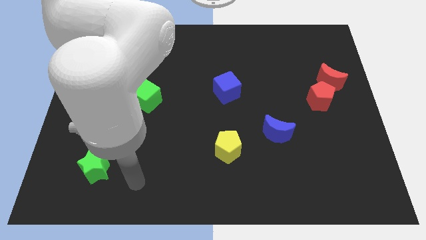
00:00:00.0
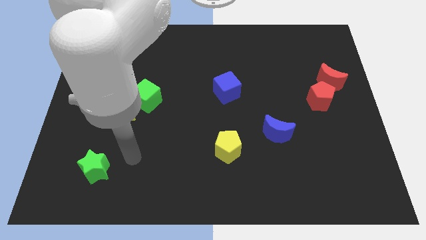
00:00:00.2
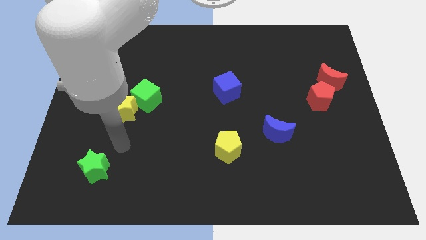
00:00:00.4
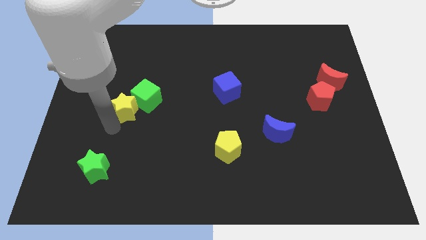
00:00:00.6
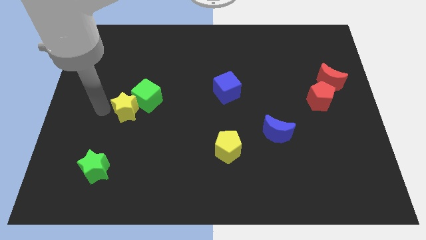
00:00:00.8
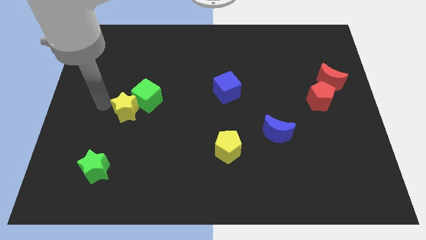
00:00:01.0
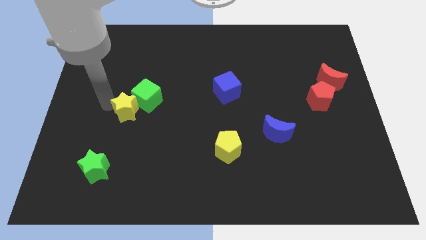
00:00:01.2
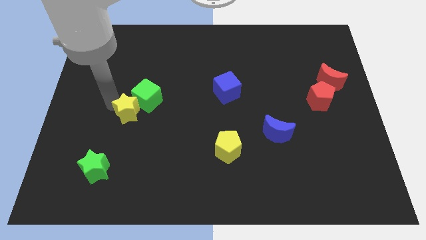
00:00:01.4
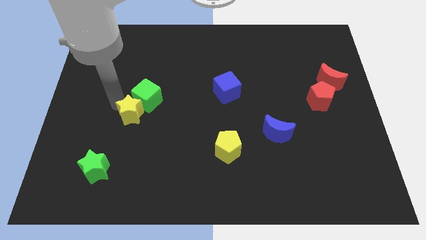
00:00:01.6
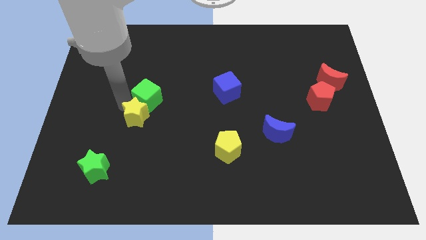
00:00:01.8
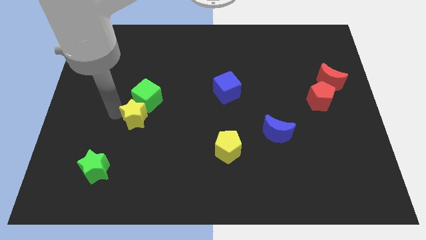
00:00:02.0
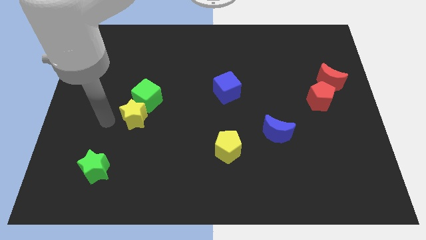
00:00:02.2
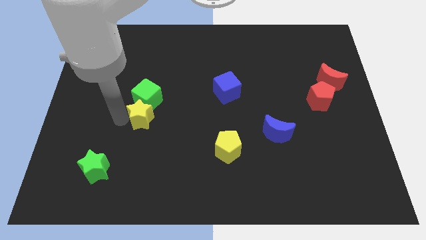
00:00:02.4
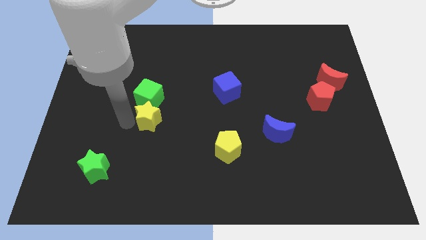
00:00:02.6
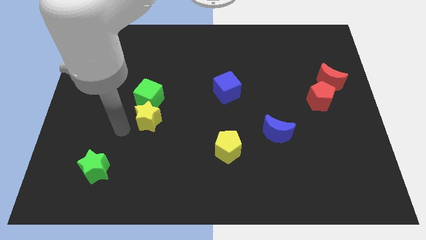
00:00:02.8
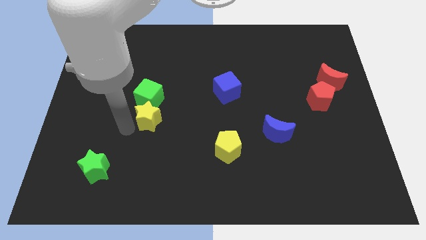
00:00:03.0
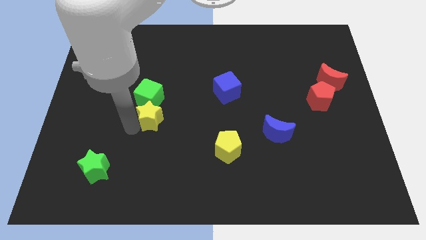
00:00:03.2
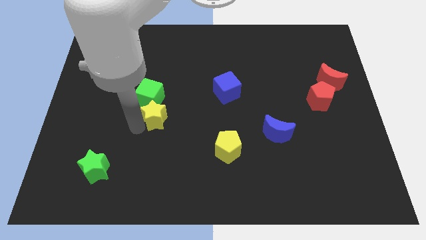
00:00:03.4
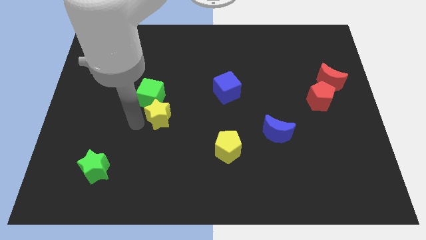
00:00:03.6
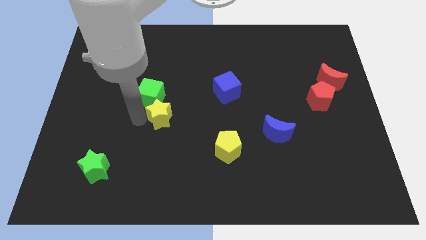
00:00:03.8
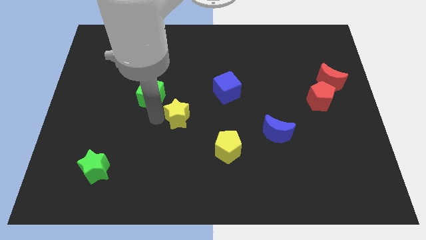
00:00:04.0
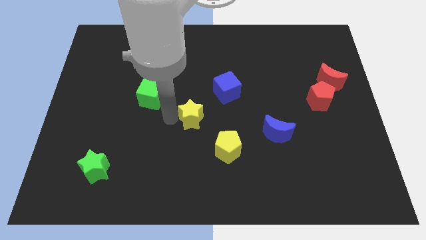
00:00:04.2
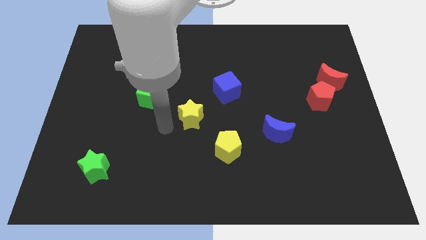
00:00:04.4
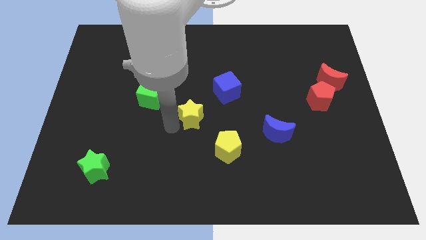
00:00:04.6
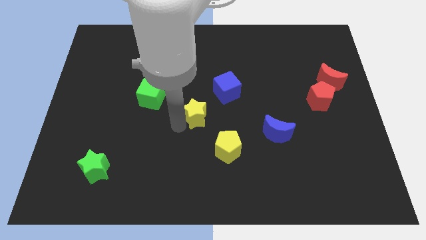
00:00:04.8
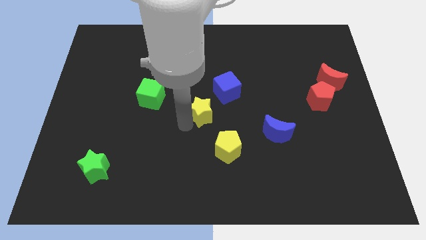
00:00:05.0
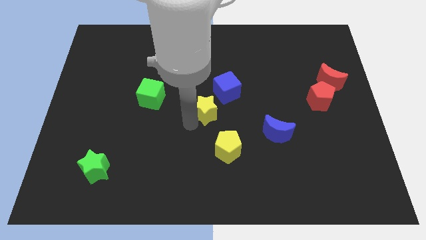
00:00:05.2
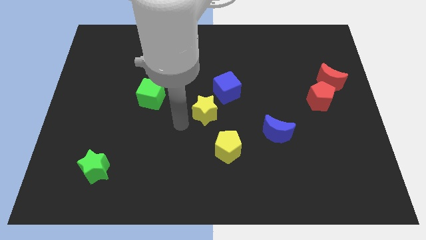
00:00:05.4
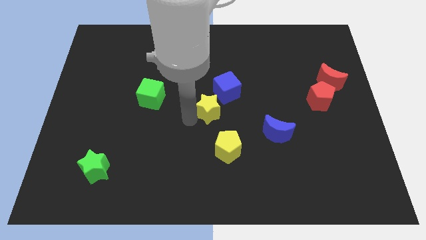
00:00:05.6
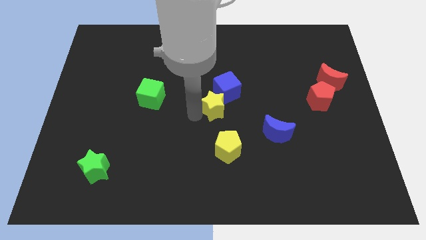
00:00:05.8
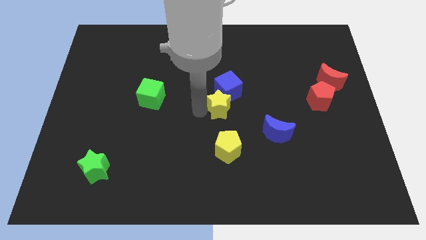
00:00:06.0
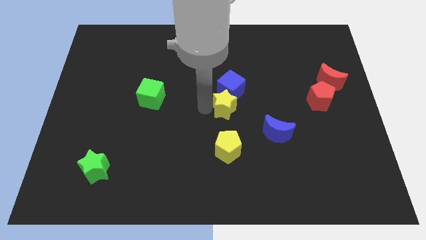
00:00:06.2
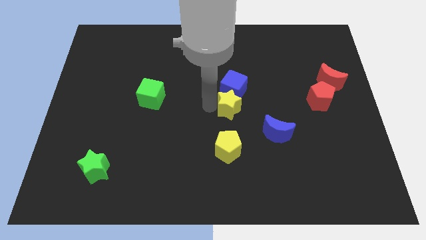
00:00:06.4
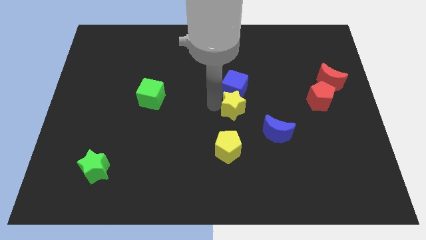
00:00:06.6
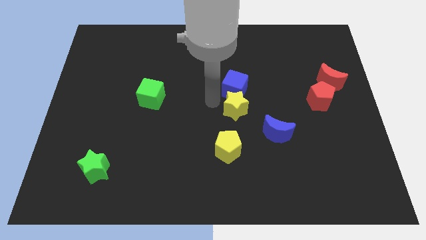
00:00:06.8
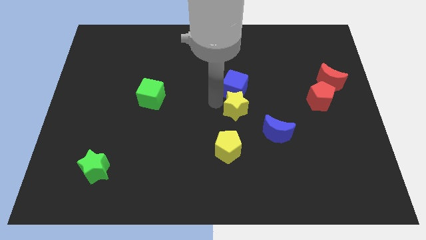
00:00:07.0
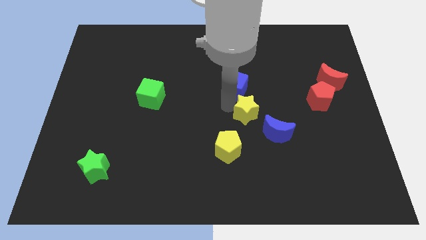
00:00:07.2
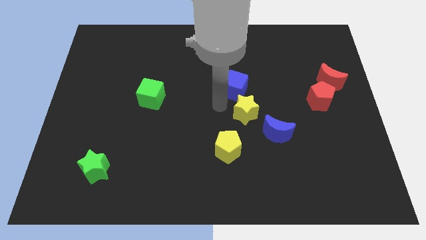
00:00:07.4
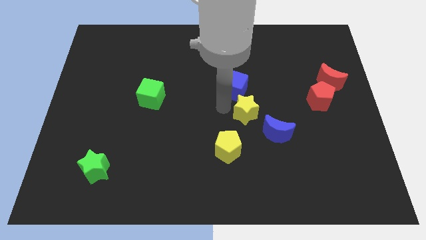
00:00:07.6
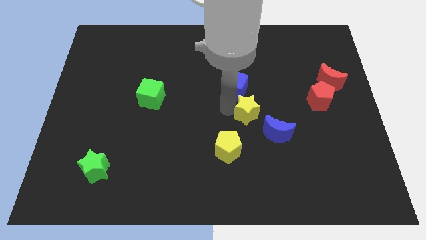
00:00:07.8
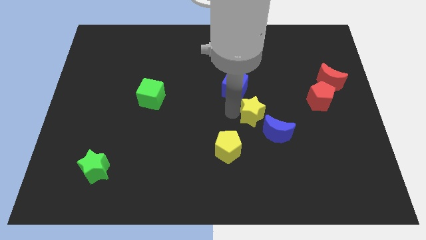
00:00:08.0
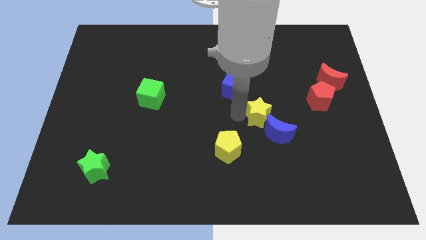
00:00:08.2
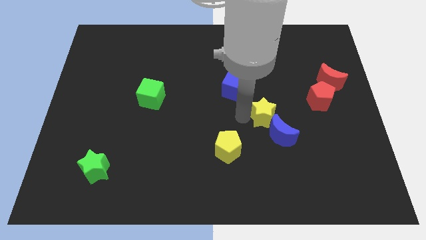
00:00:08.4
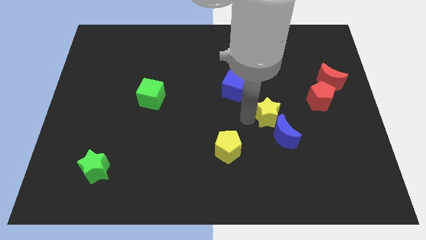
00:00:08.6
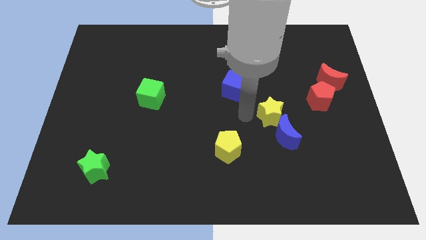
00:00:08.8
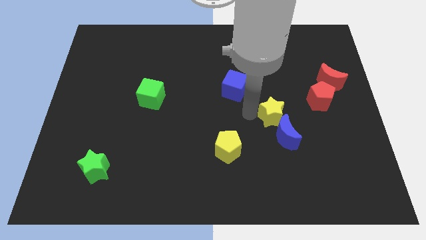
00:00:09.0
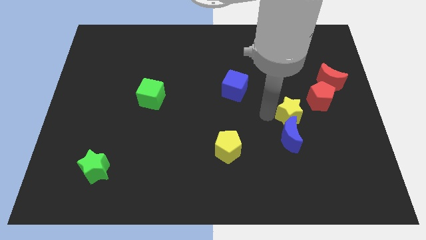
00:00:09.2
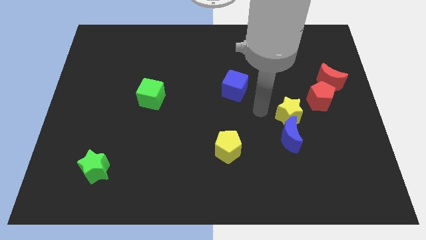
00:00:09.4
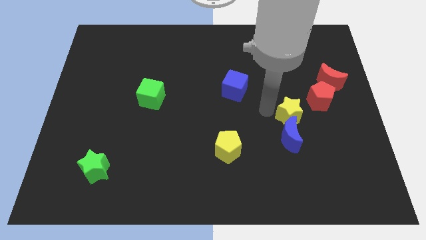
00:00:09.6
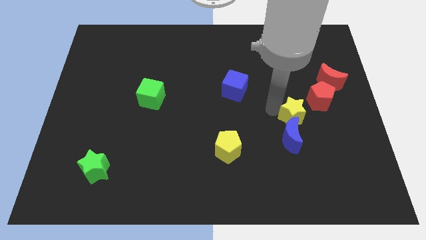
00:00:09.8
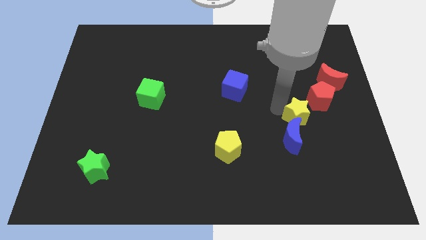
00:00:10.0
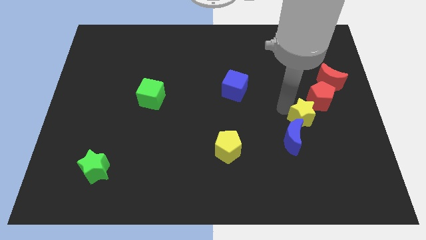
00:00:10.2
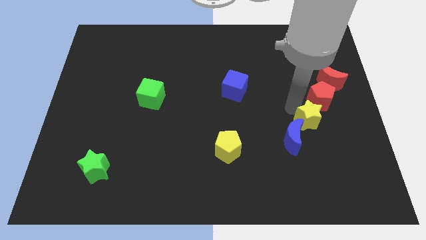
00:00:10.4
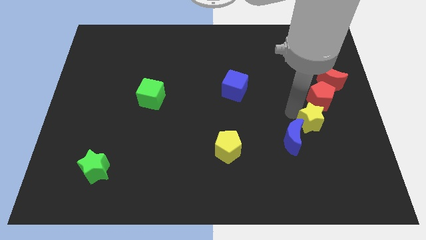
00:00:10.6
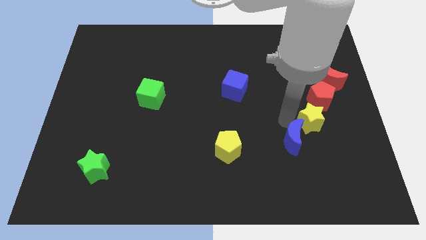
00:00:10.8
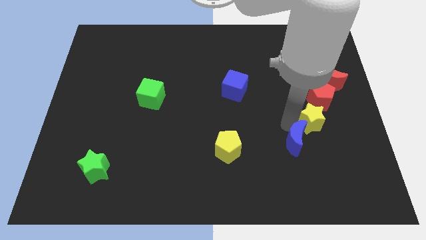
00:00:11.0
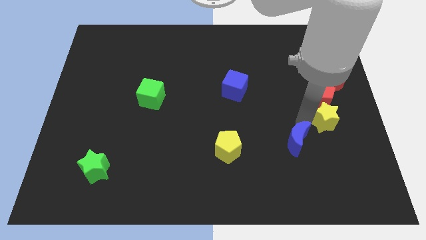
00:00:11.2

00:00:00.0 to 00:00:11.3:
put the yellow star below the red moon

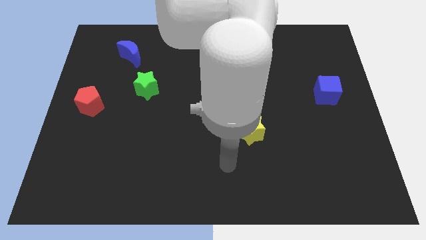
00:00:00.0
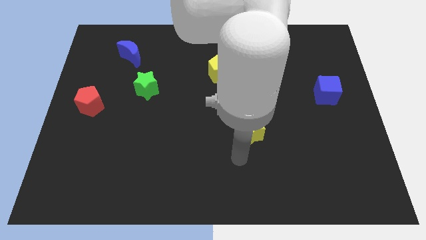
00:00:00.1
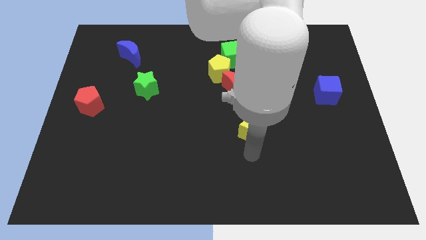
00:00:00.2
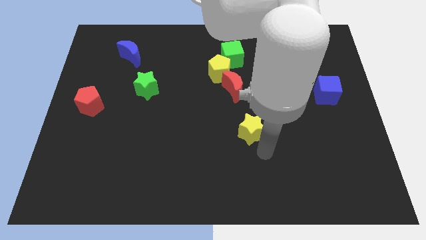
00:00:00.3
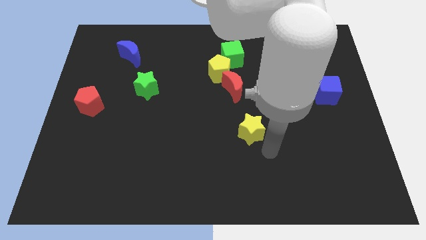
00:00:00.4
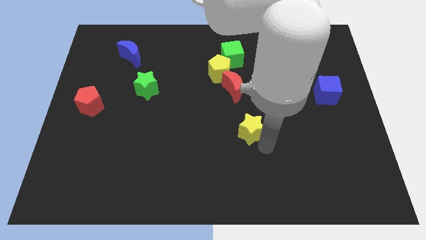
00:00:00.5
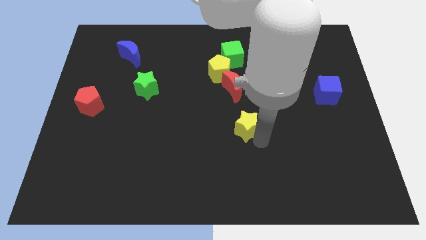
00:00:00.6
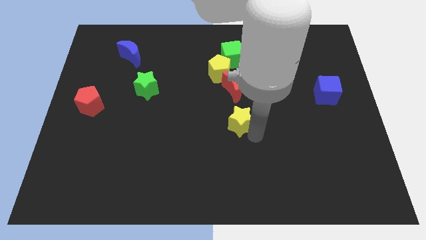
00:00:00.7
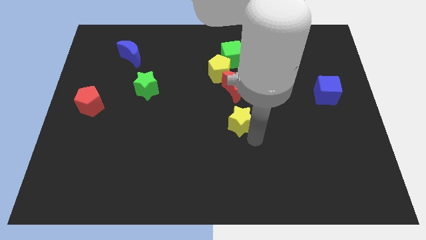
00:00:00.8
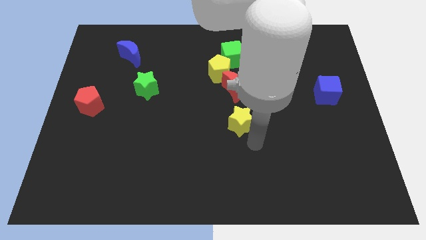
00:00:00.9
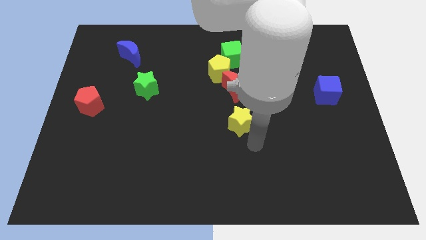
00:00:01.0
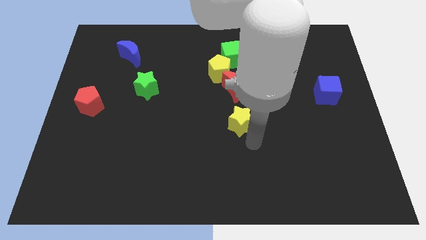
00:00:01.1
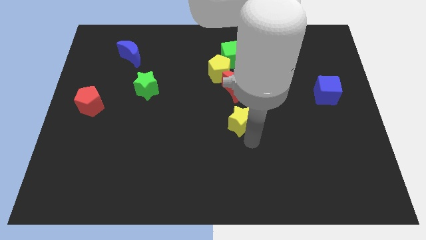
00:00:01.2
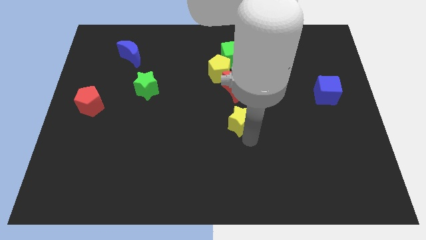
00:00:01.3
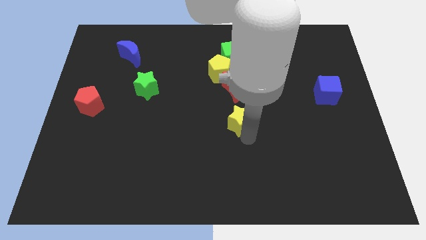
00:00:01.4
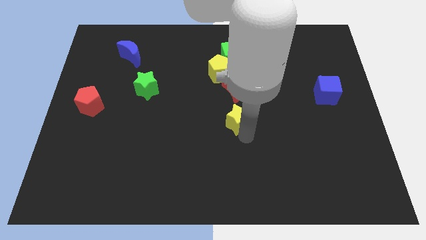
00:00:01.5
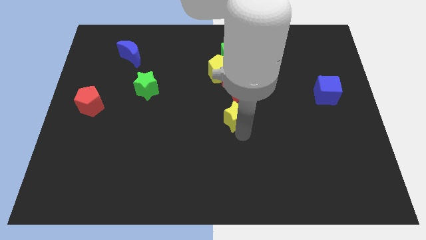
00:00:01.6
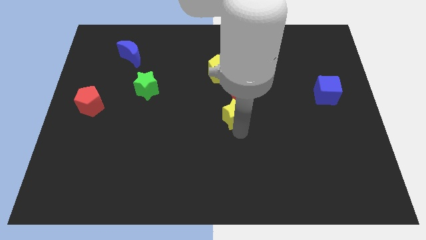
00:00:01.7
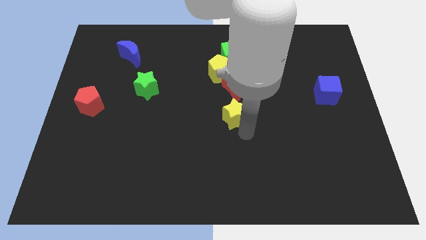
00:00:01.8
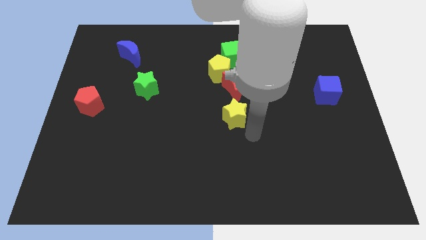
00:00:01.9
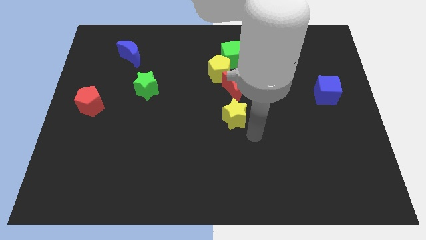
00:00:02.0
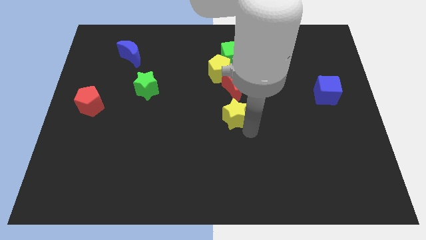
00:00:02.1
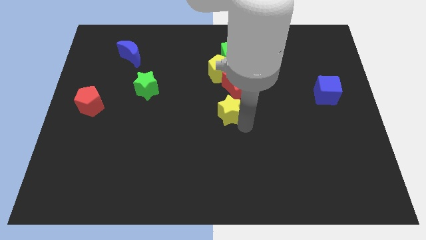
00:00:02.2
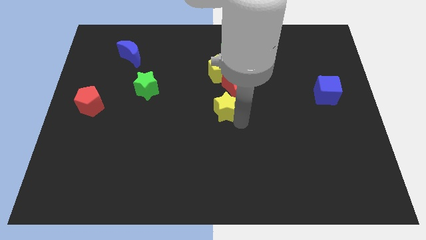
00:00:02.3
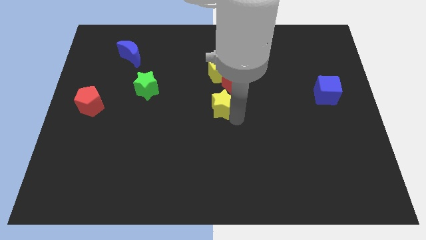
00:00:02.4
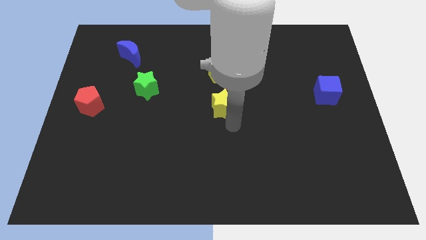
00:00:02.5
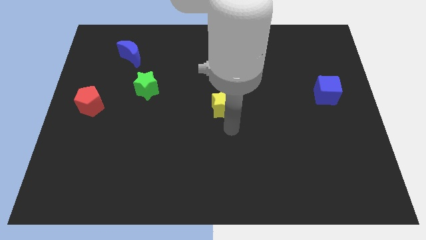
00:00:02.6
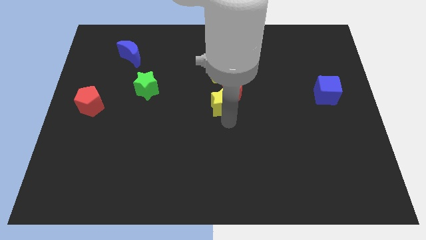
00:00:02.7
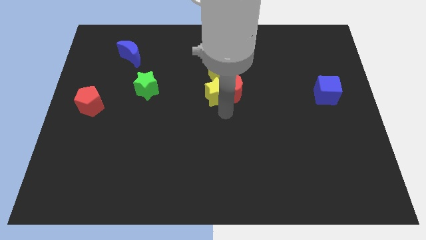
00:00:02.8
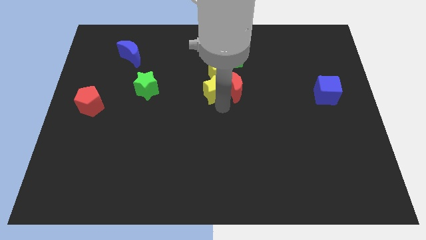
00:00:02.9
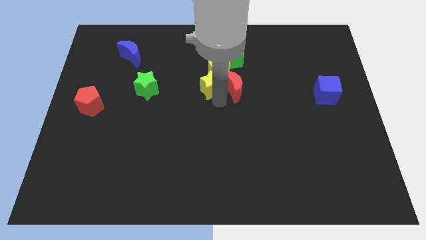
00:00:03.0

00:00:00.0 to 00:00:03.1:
put the yellow star to the bottom left of the green cube
